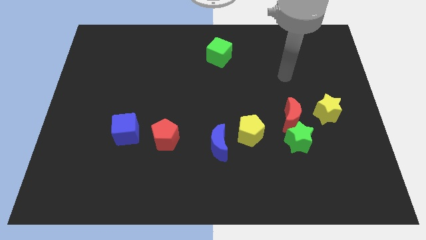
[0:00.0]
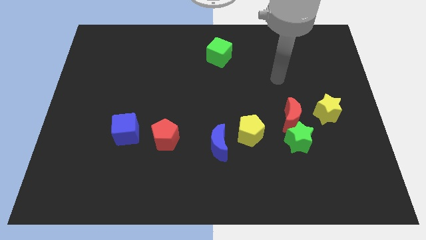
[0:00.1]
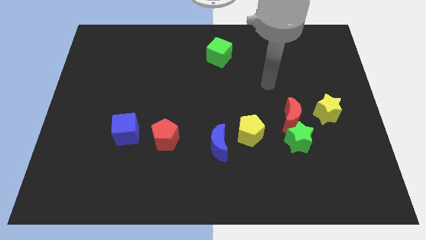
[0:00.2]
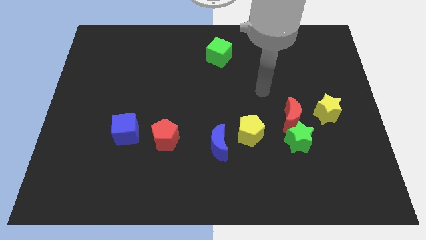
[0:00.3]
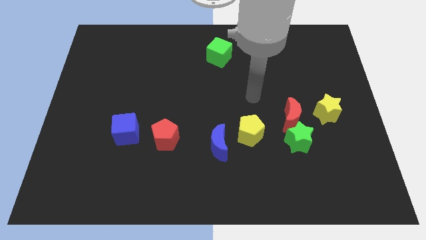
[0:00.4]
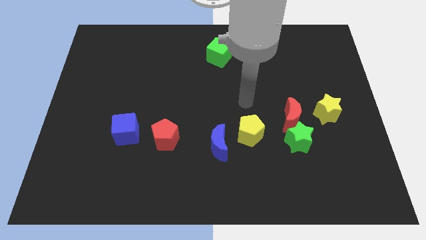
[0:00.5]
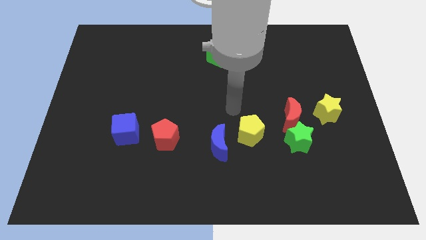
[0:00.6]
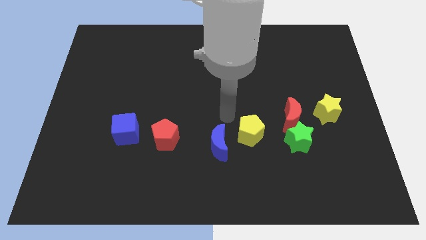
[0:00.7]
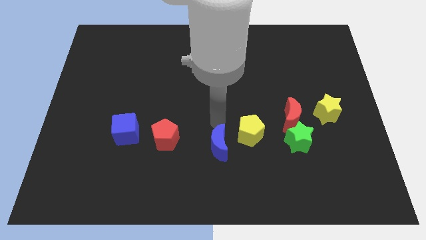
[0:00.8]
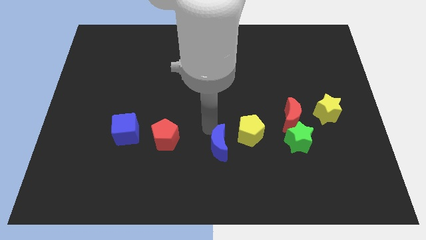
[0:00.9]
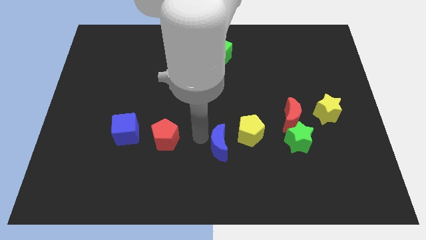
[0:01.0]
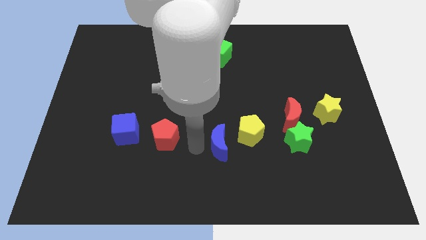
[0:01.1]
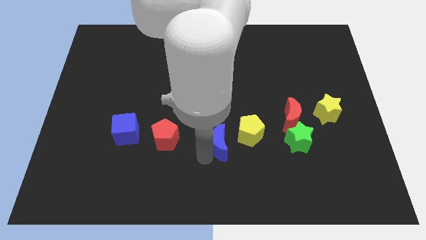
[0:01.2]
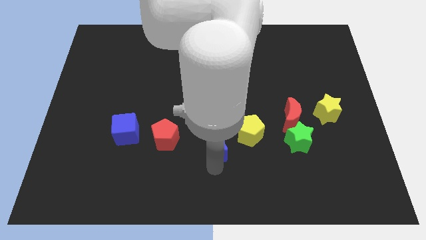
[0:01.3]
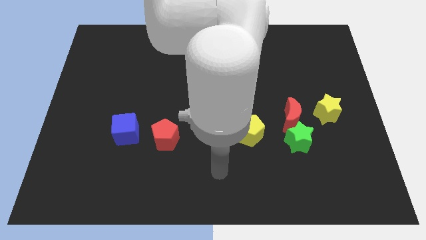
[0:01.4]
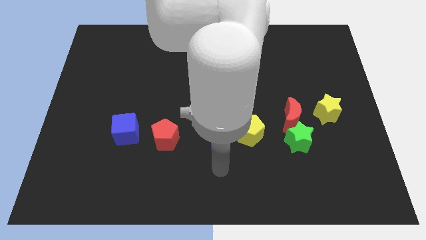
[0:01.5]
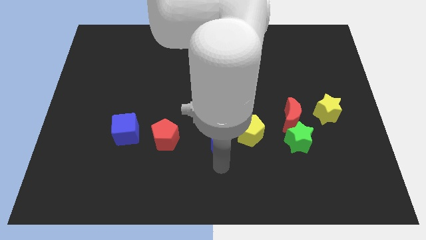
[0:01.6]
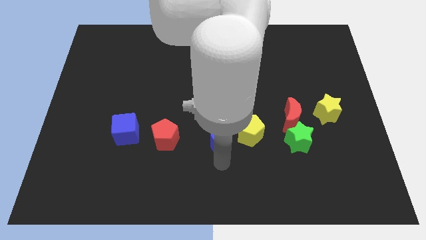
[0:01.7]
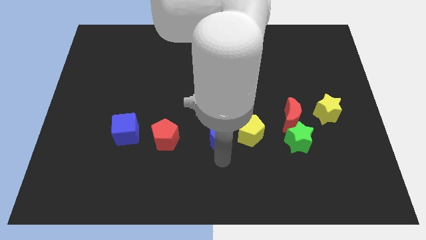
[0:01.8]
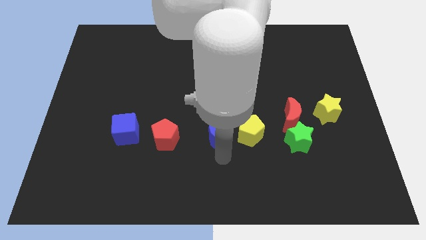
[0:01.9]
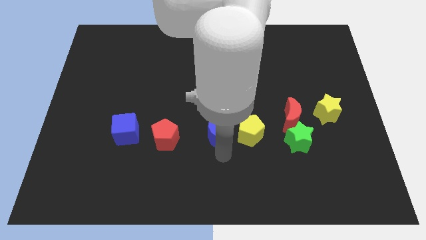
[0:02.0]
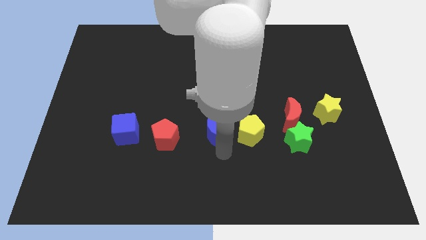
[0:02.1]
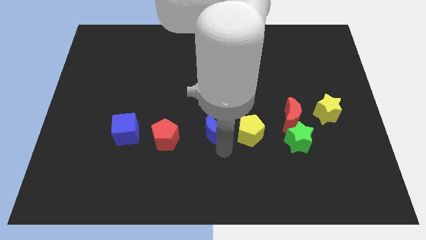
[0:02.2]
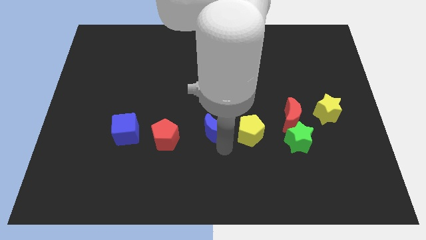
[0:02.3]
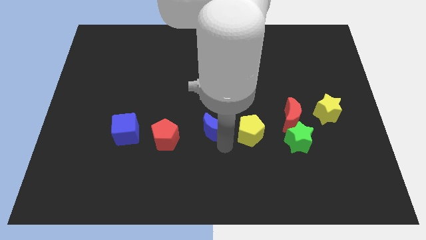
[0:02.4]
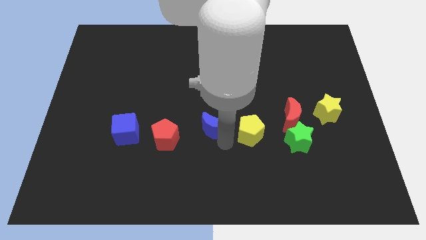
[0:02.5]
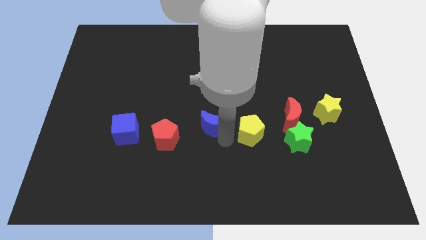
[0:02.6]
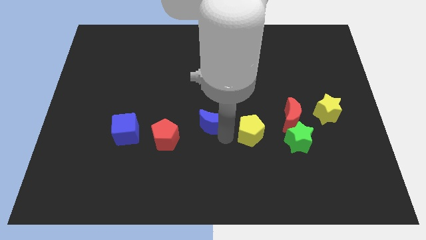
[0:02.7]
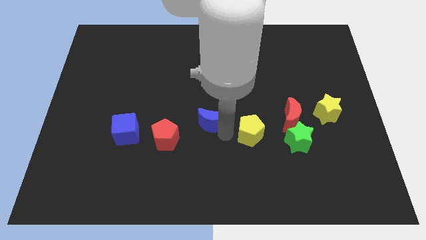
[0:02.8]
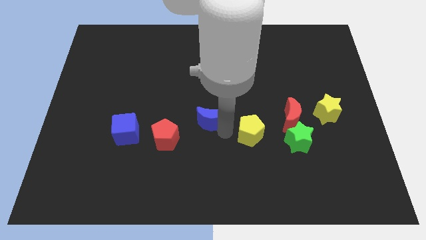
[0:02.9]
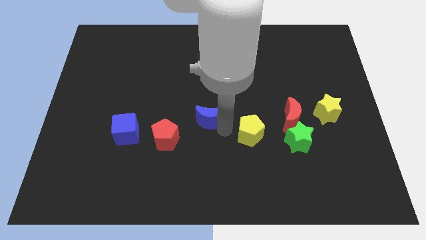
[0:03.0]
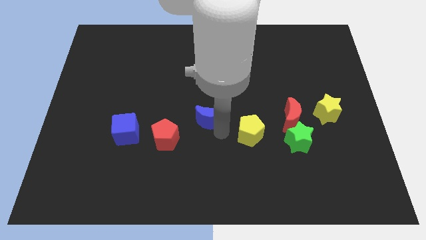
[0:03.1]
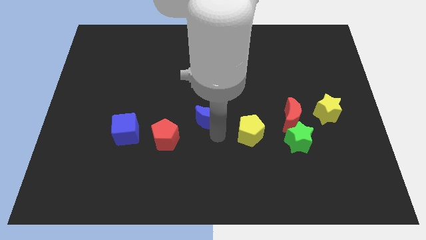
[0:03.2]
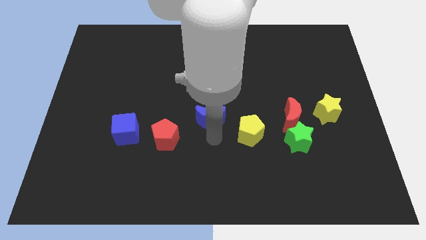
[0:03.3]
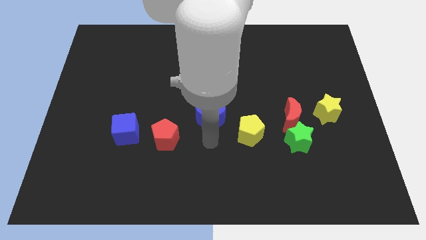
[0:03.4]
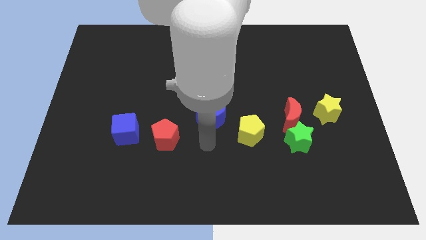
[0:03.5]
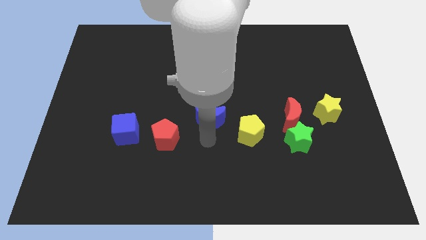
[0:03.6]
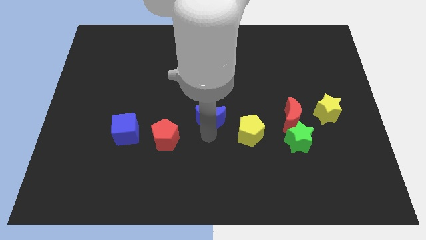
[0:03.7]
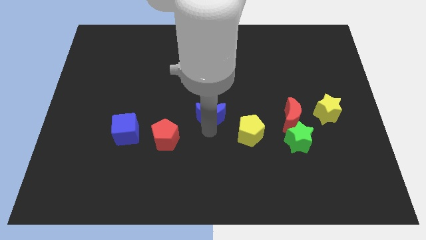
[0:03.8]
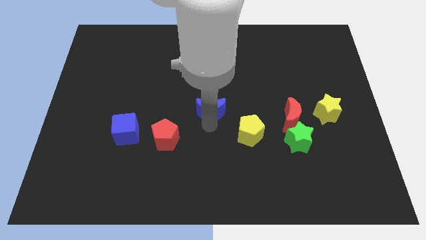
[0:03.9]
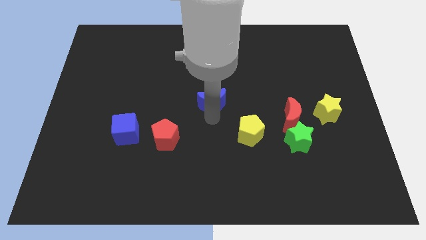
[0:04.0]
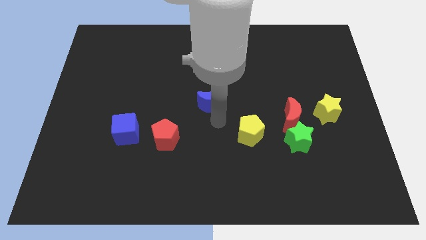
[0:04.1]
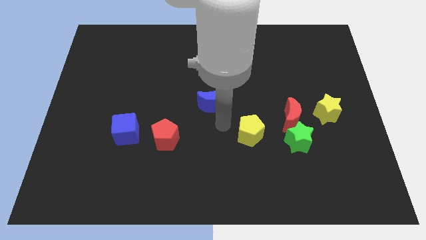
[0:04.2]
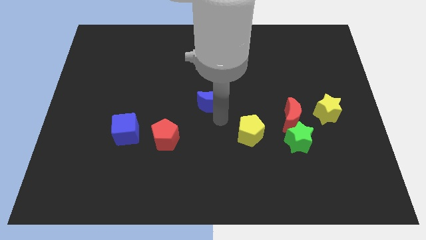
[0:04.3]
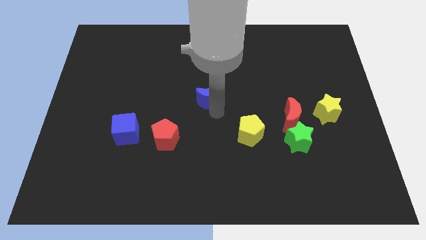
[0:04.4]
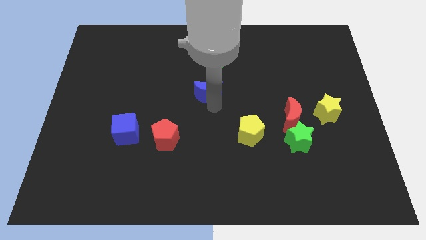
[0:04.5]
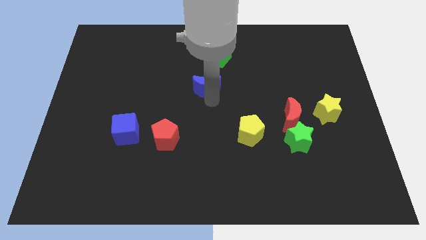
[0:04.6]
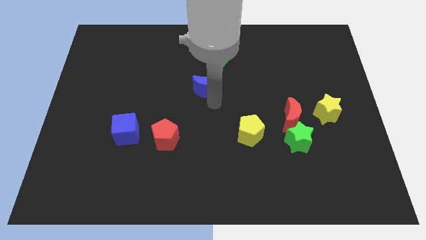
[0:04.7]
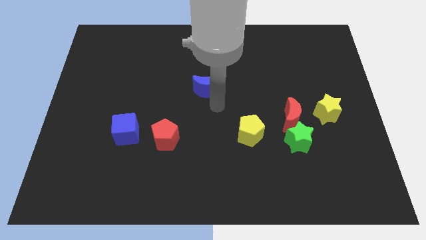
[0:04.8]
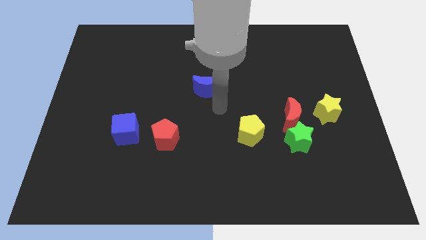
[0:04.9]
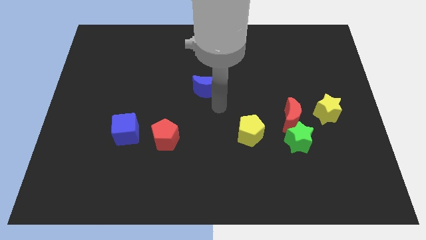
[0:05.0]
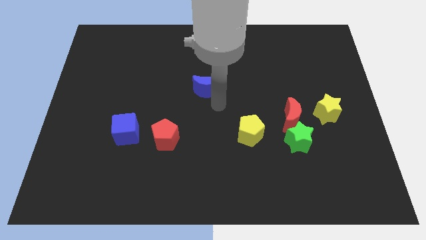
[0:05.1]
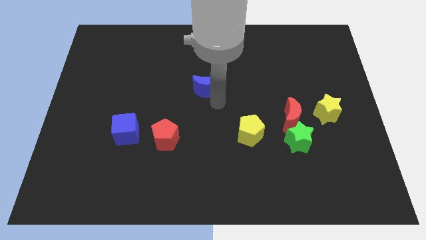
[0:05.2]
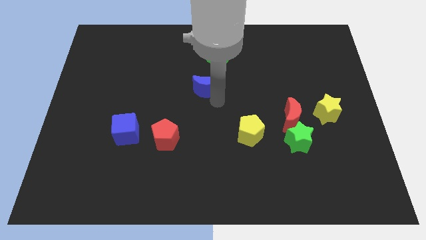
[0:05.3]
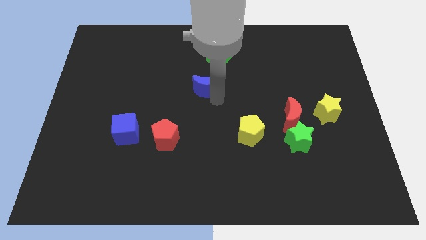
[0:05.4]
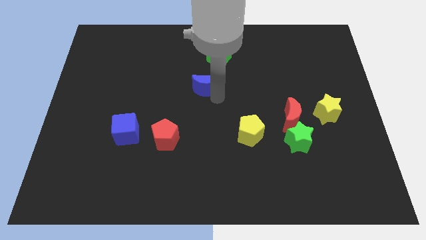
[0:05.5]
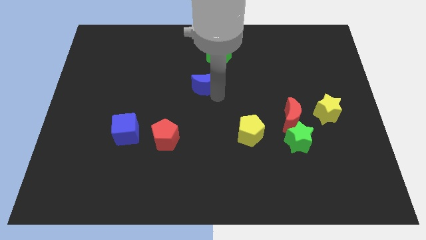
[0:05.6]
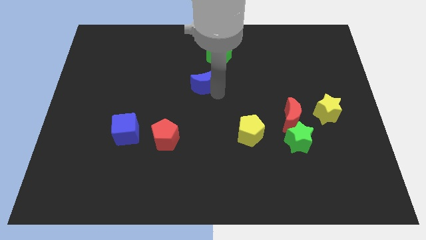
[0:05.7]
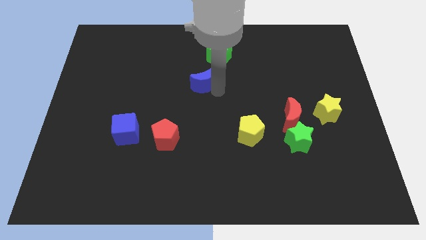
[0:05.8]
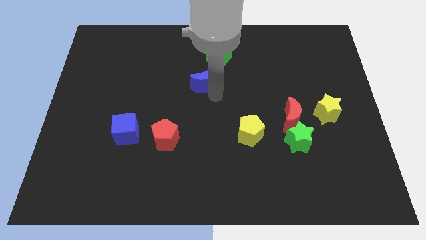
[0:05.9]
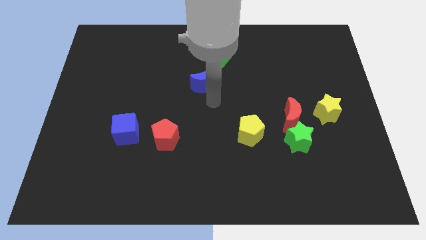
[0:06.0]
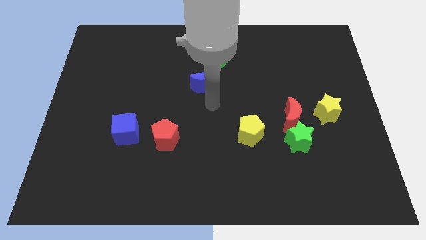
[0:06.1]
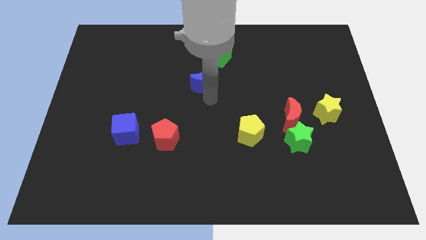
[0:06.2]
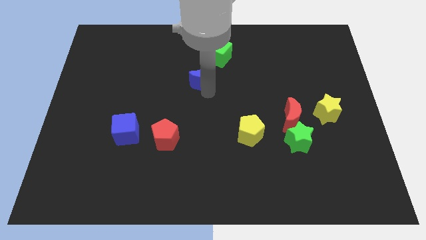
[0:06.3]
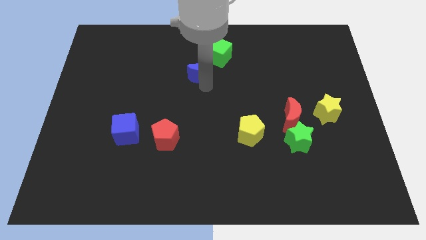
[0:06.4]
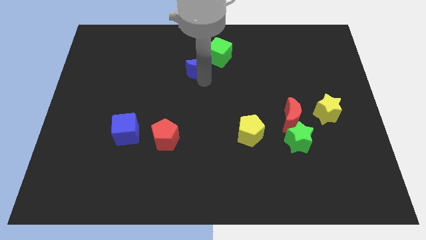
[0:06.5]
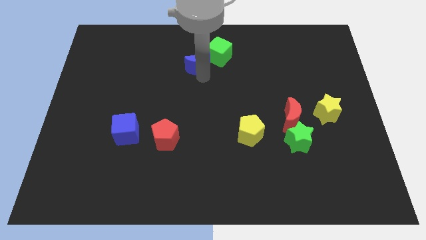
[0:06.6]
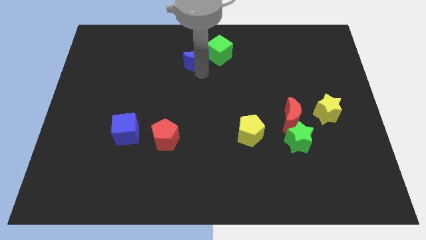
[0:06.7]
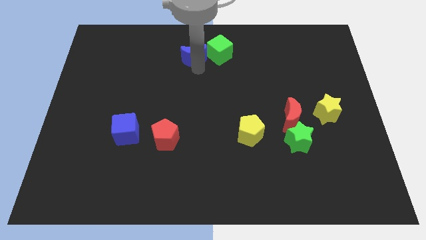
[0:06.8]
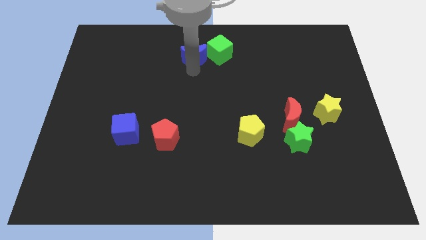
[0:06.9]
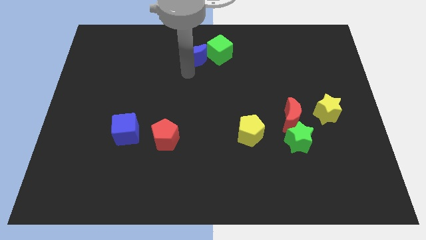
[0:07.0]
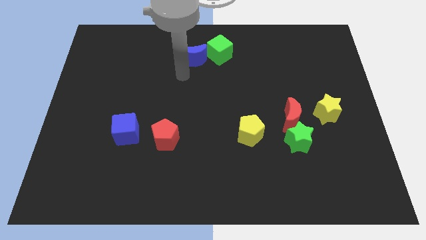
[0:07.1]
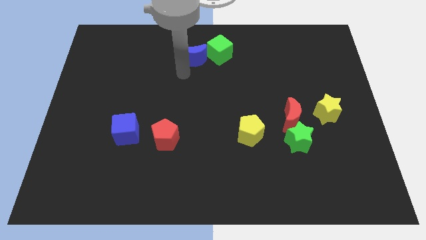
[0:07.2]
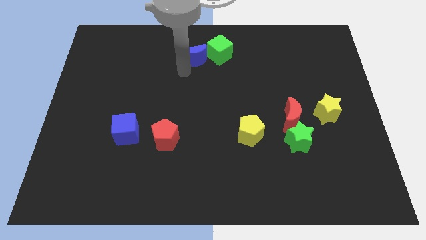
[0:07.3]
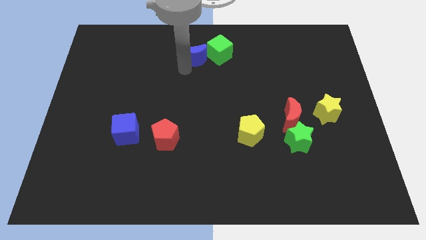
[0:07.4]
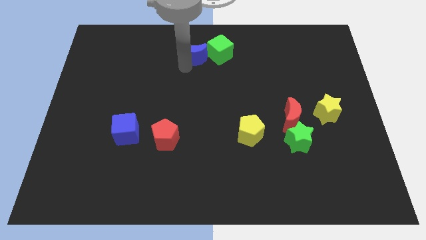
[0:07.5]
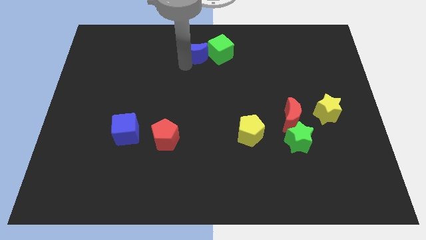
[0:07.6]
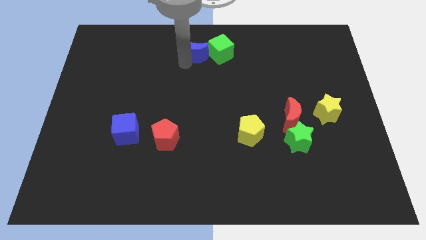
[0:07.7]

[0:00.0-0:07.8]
push the blue moon to the top side
